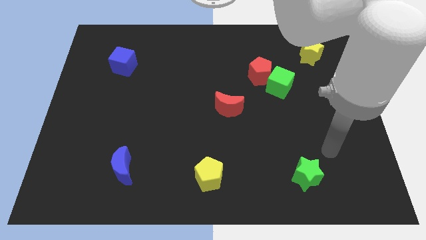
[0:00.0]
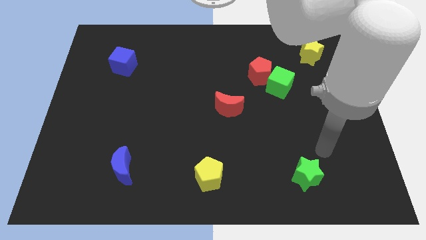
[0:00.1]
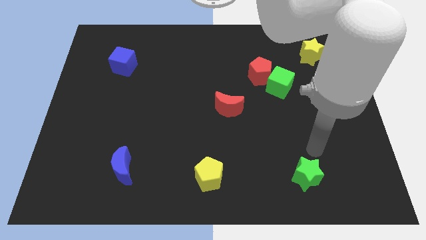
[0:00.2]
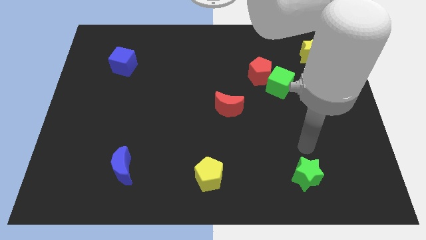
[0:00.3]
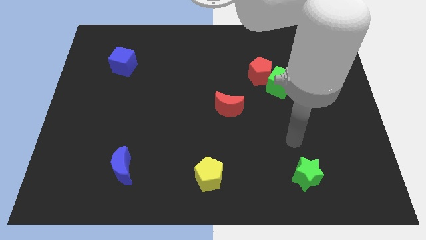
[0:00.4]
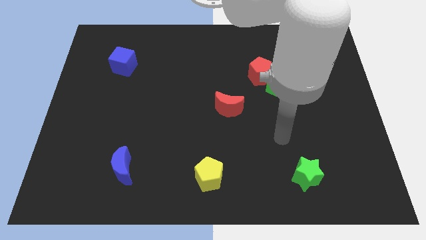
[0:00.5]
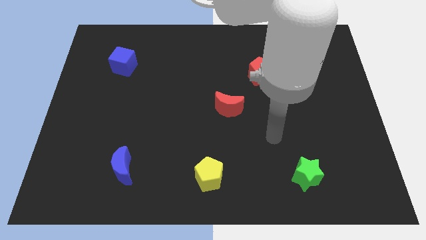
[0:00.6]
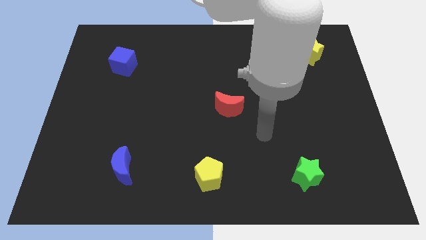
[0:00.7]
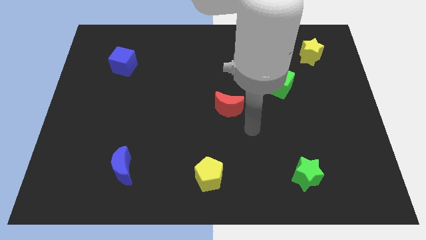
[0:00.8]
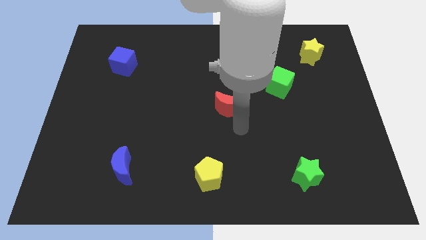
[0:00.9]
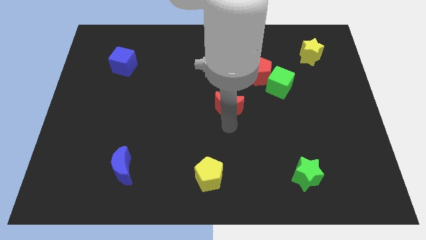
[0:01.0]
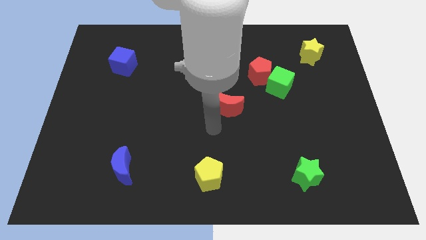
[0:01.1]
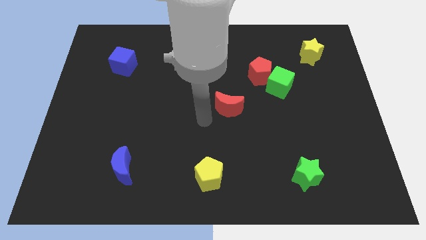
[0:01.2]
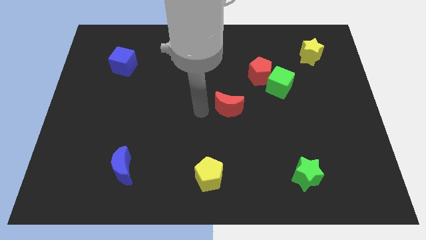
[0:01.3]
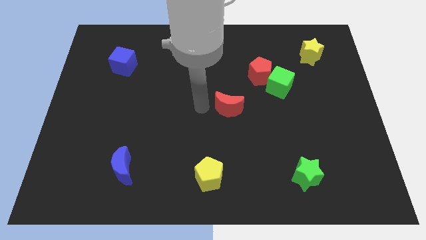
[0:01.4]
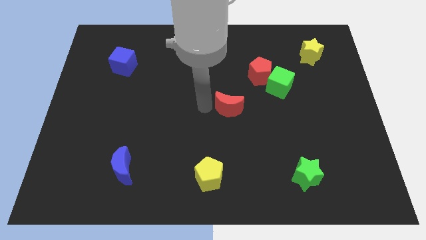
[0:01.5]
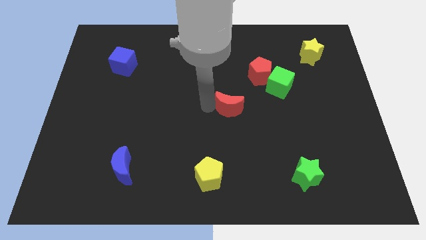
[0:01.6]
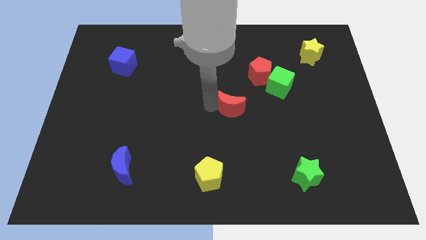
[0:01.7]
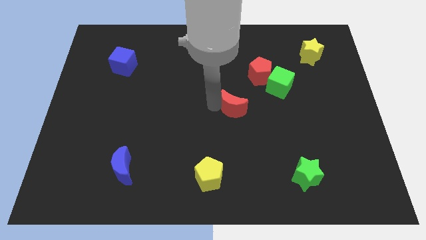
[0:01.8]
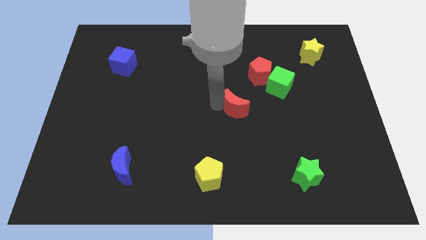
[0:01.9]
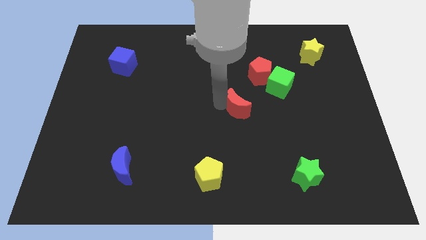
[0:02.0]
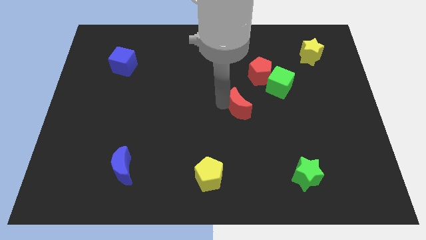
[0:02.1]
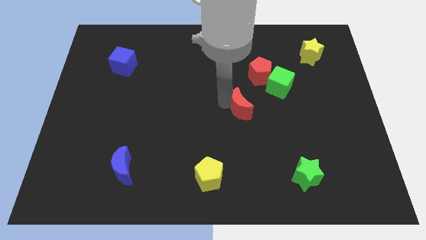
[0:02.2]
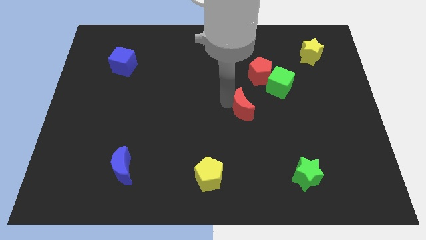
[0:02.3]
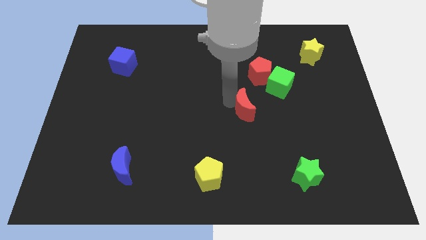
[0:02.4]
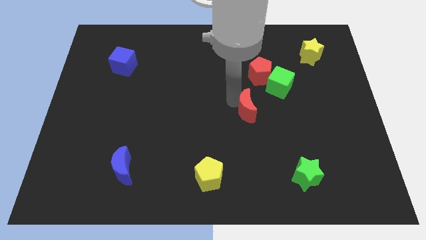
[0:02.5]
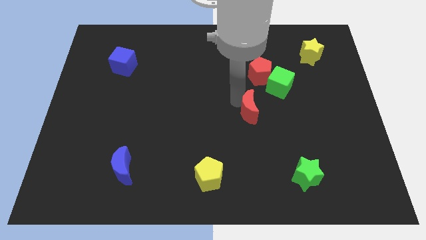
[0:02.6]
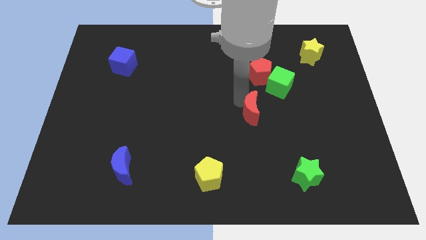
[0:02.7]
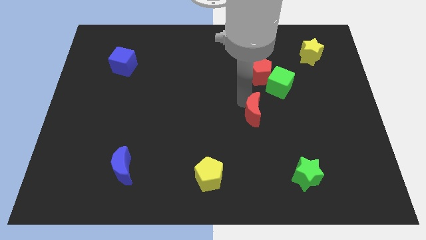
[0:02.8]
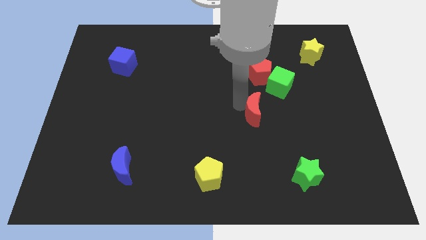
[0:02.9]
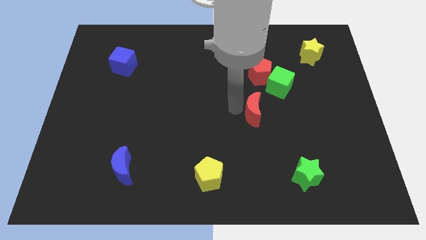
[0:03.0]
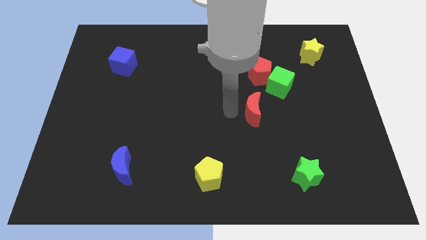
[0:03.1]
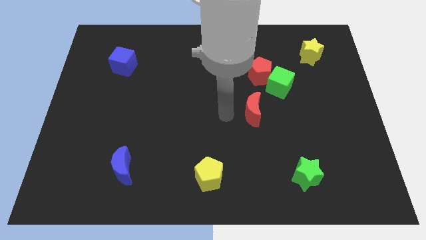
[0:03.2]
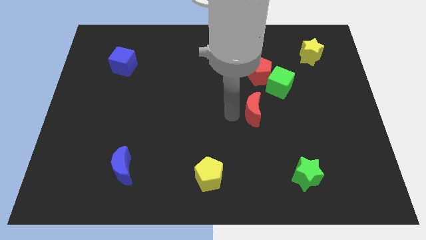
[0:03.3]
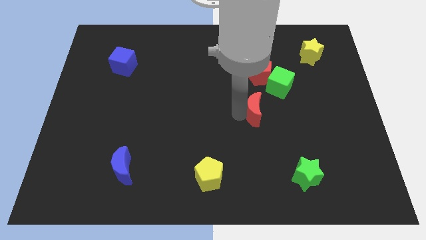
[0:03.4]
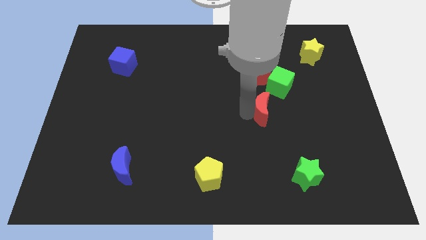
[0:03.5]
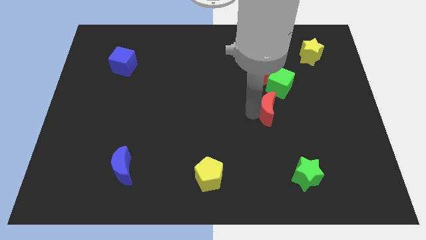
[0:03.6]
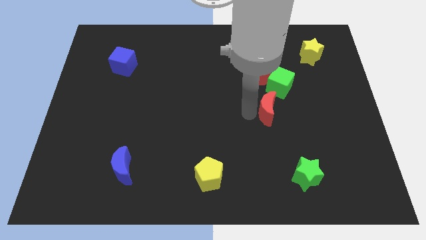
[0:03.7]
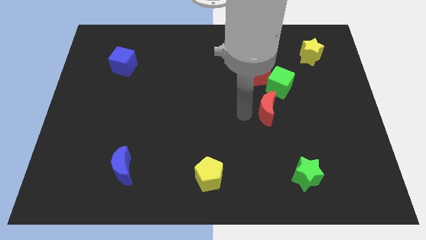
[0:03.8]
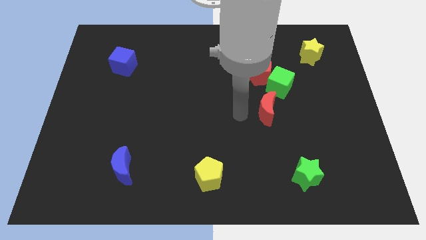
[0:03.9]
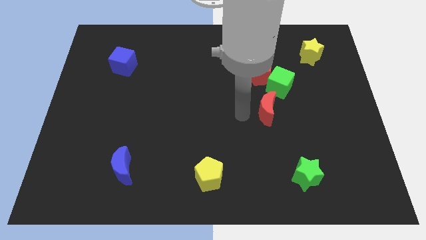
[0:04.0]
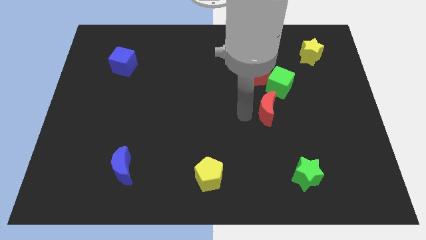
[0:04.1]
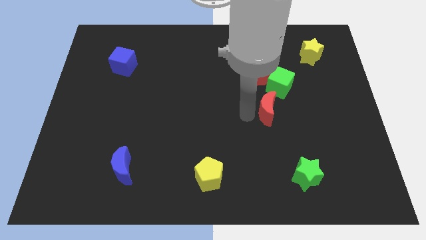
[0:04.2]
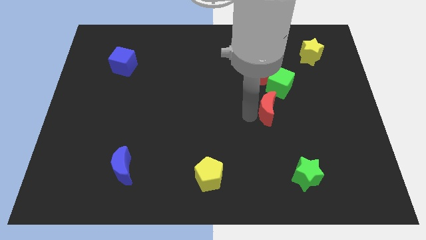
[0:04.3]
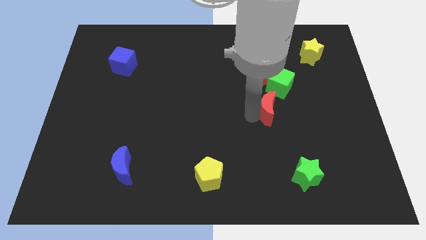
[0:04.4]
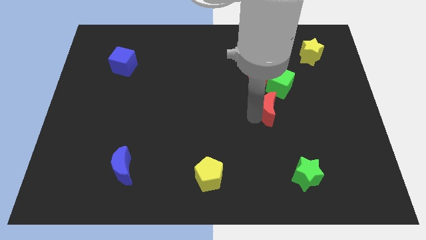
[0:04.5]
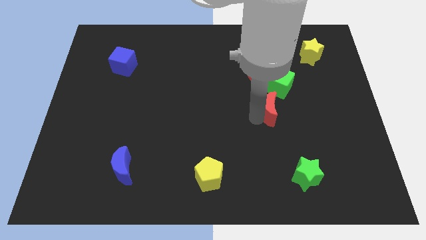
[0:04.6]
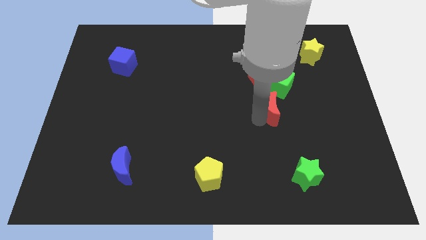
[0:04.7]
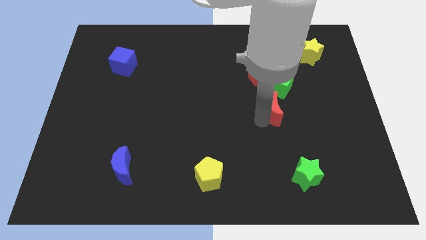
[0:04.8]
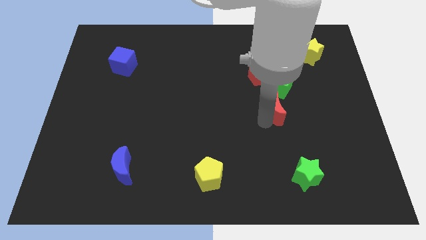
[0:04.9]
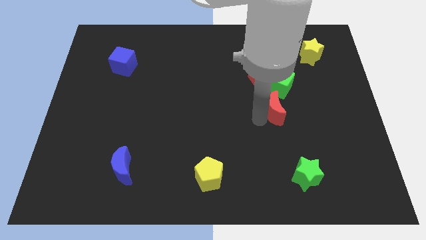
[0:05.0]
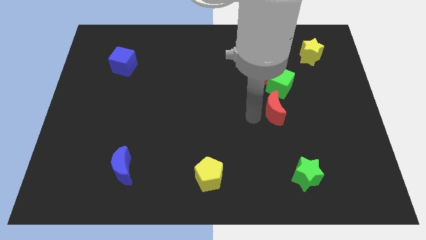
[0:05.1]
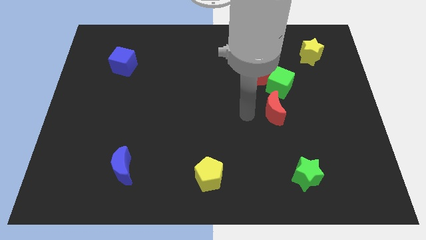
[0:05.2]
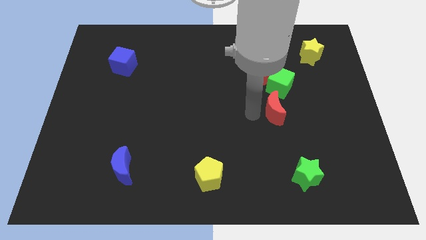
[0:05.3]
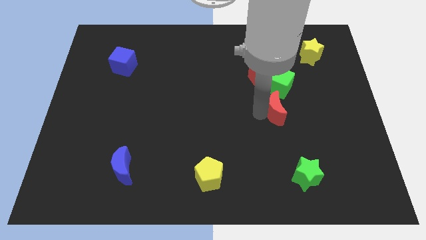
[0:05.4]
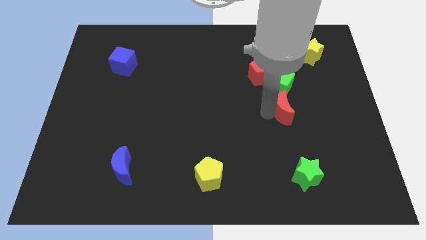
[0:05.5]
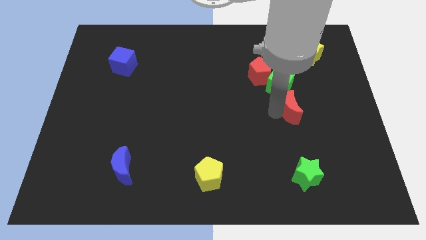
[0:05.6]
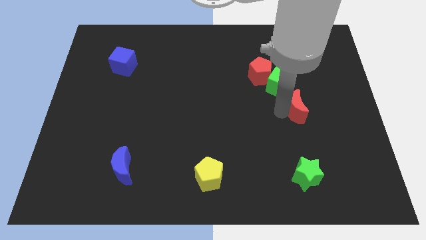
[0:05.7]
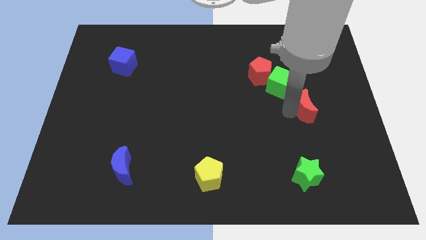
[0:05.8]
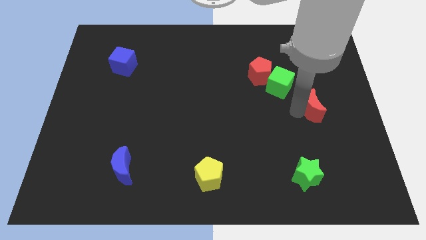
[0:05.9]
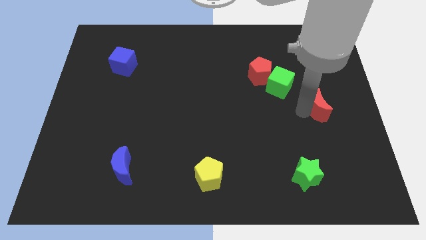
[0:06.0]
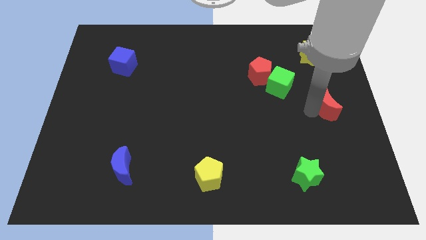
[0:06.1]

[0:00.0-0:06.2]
put the red moon to the right side
